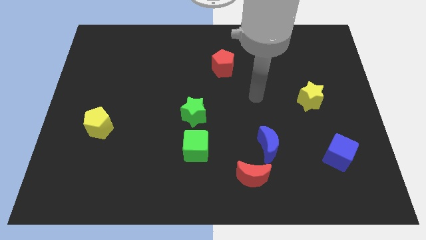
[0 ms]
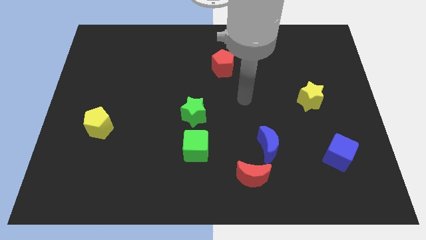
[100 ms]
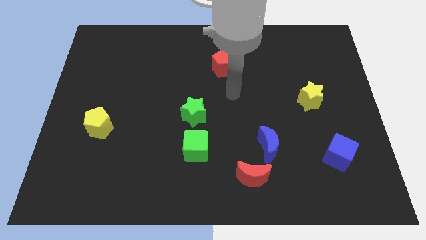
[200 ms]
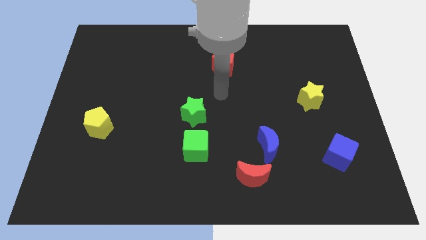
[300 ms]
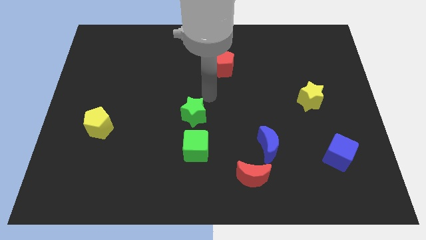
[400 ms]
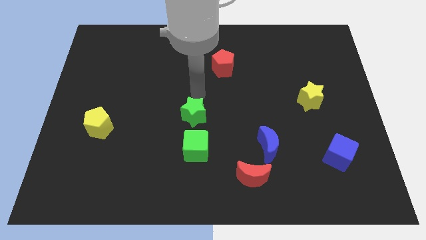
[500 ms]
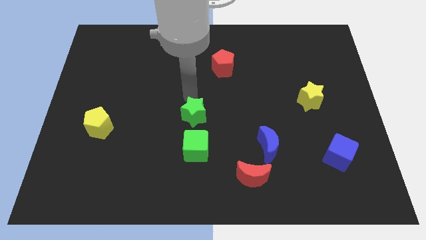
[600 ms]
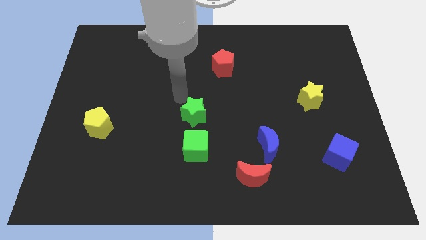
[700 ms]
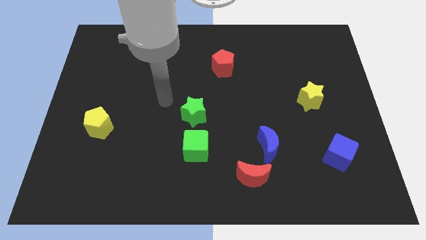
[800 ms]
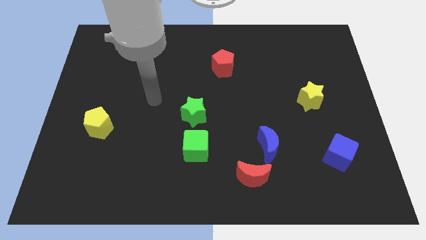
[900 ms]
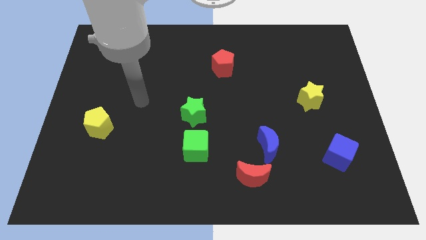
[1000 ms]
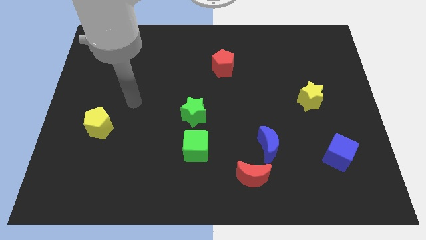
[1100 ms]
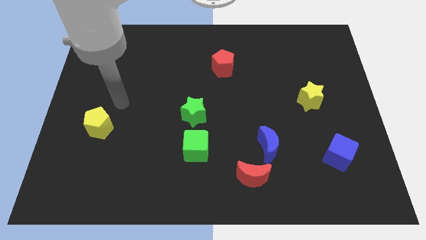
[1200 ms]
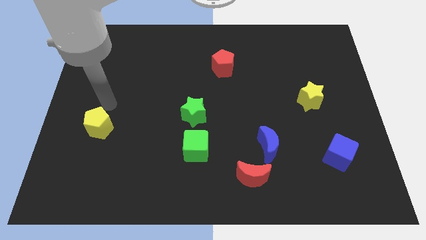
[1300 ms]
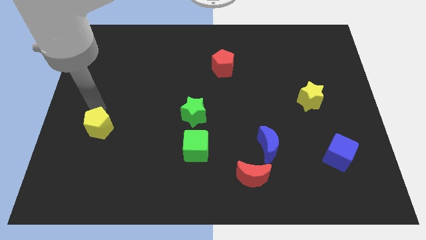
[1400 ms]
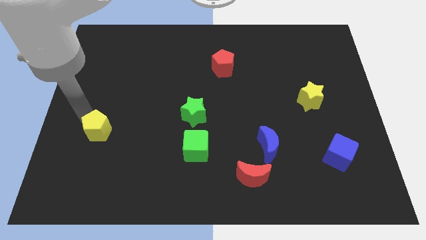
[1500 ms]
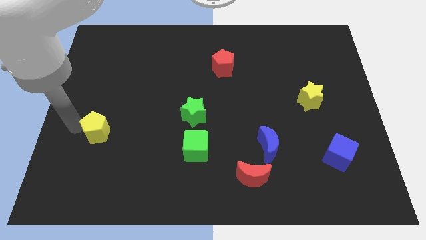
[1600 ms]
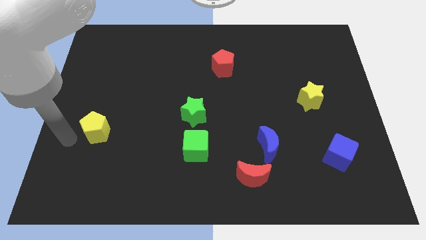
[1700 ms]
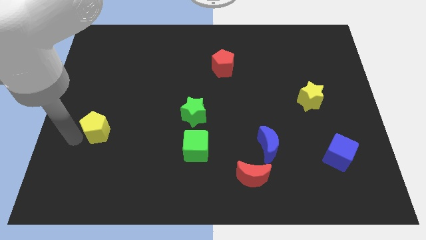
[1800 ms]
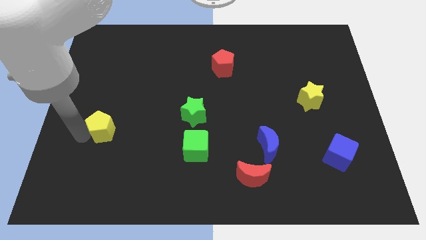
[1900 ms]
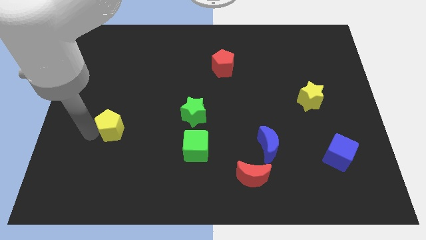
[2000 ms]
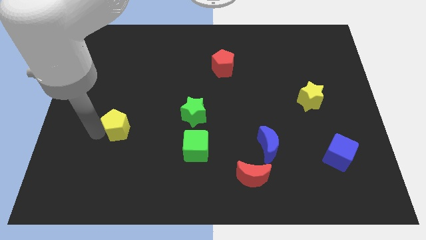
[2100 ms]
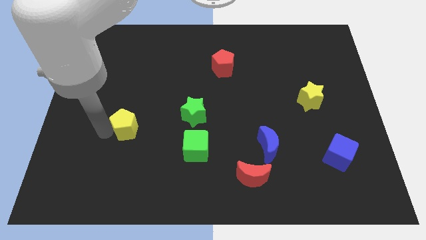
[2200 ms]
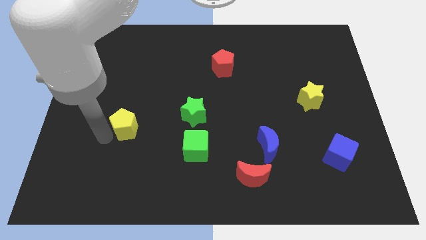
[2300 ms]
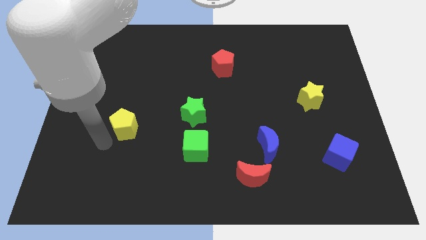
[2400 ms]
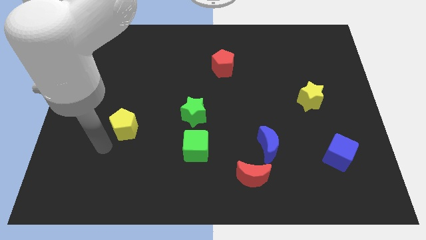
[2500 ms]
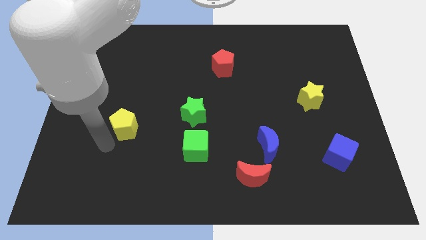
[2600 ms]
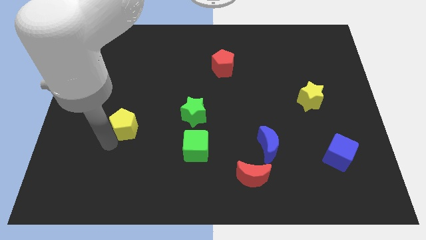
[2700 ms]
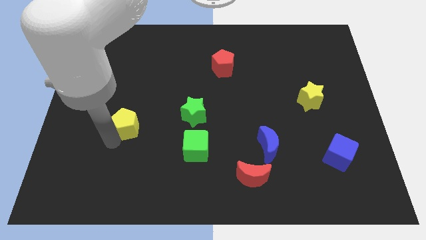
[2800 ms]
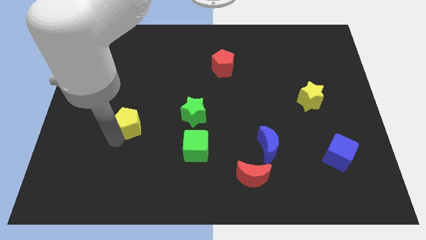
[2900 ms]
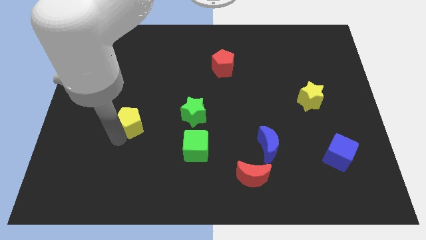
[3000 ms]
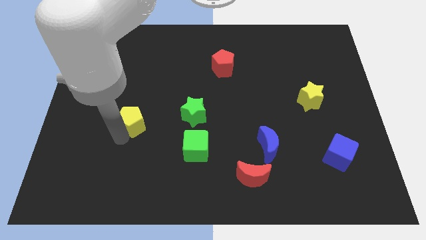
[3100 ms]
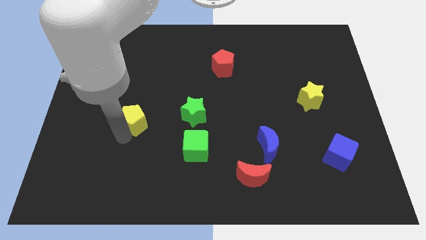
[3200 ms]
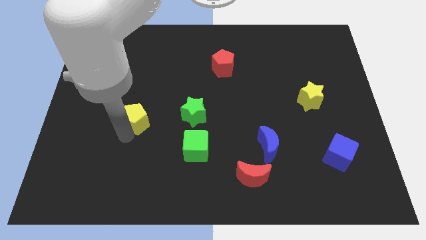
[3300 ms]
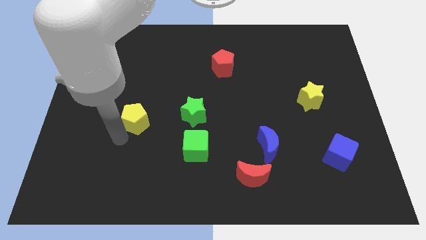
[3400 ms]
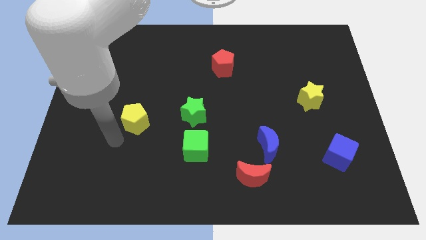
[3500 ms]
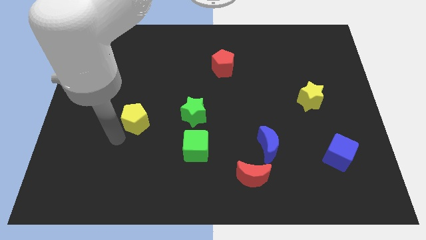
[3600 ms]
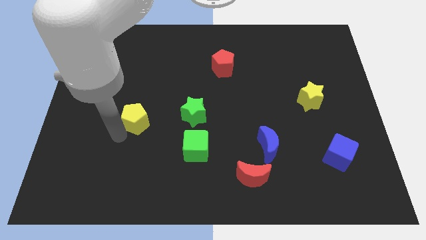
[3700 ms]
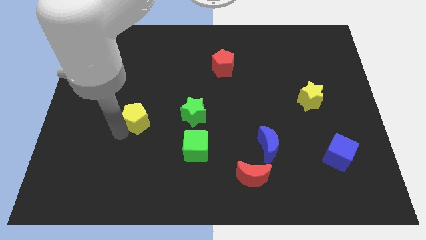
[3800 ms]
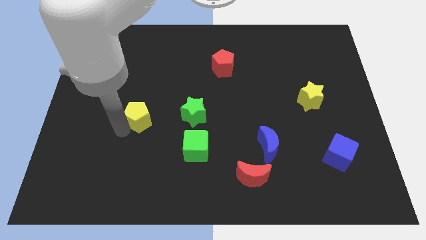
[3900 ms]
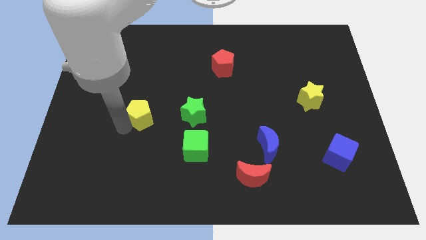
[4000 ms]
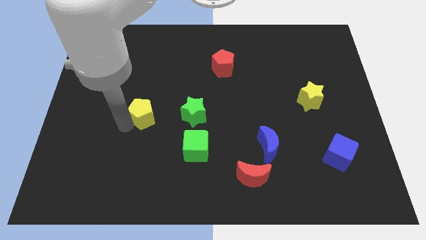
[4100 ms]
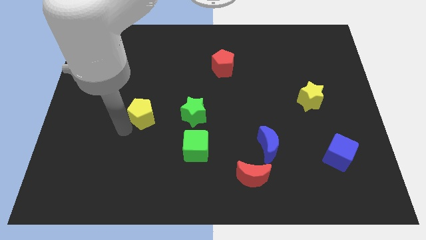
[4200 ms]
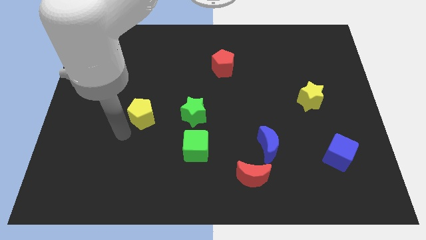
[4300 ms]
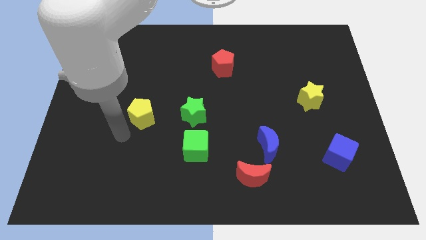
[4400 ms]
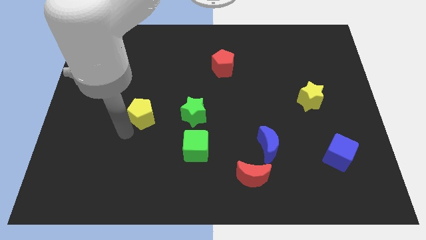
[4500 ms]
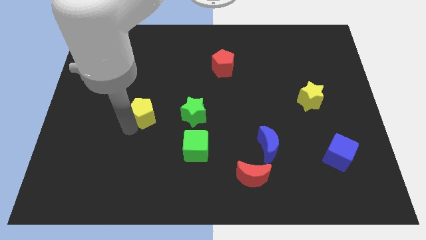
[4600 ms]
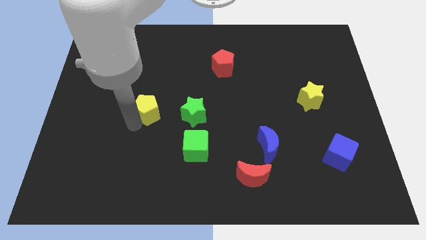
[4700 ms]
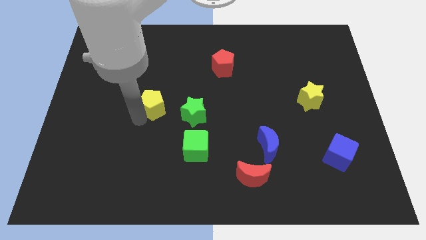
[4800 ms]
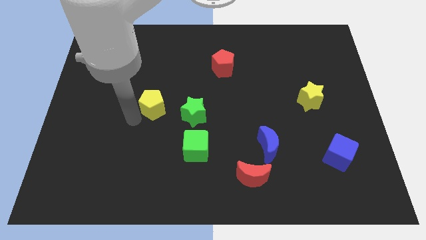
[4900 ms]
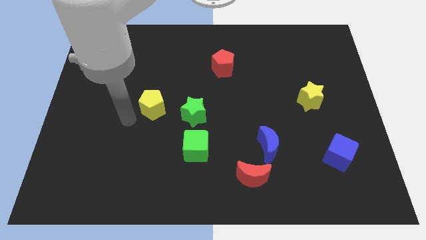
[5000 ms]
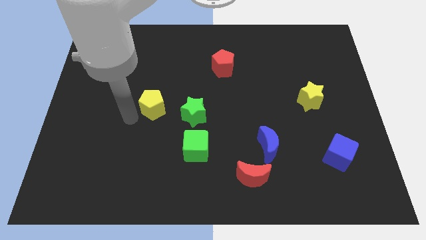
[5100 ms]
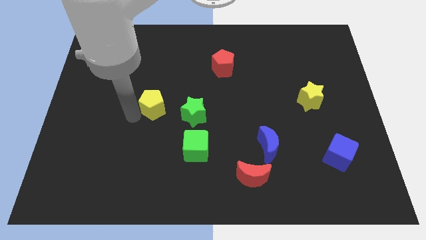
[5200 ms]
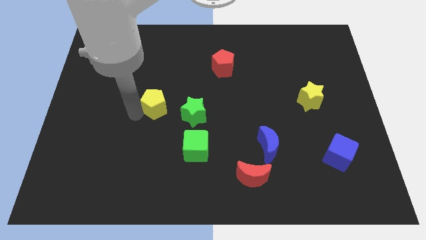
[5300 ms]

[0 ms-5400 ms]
slide the yellow pentagon to the top left side of the green star

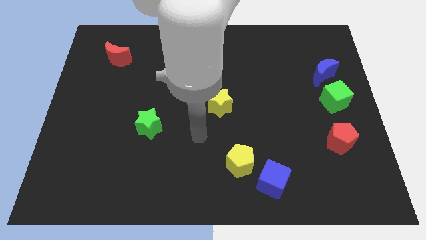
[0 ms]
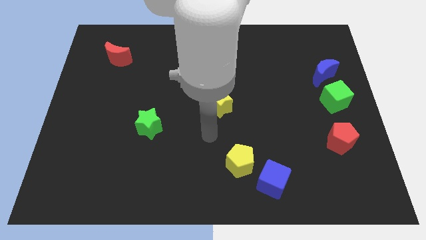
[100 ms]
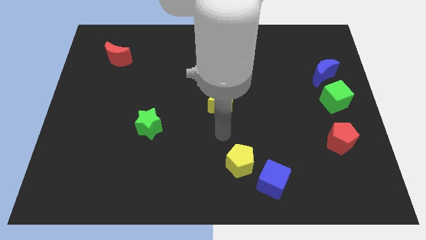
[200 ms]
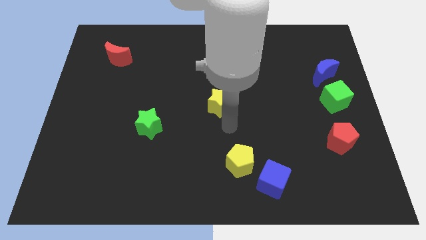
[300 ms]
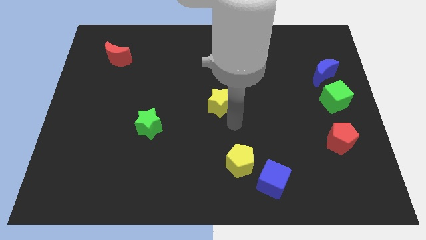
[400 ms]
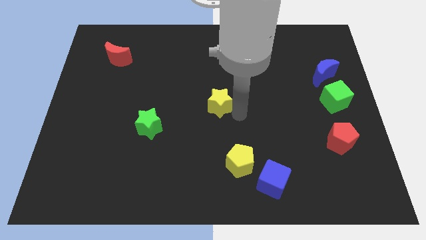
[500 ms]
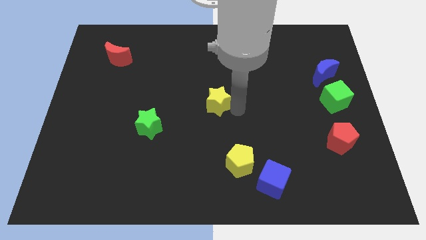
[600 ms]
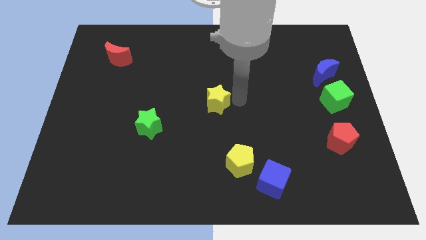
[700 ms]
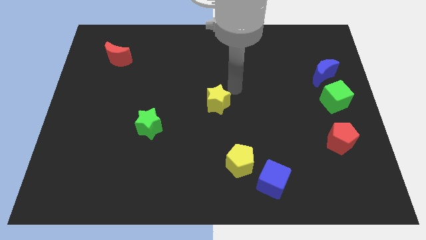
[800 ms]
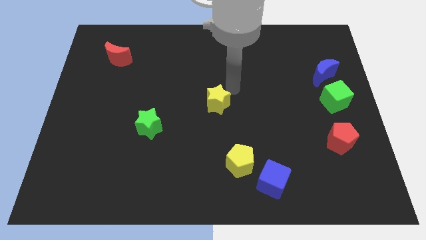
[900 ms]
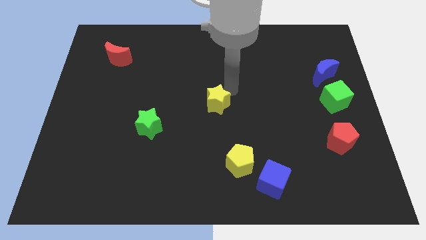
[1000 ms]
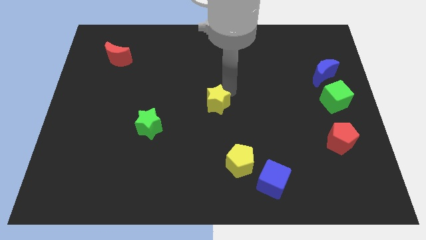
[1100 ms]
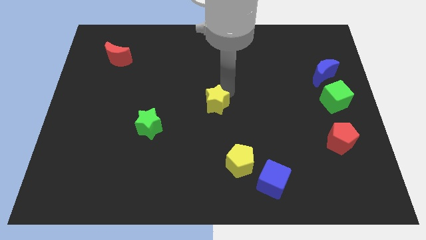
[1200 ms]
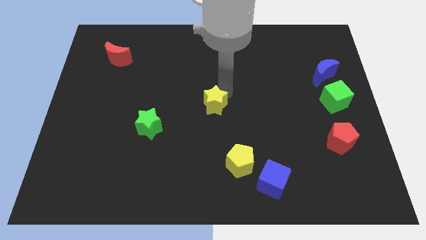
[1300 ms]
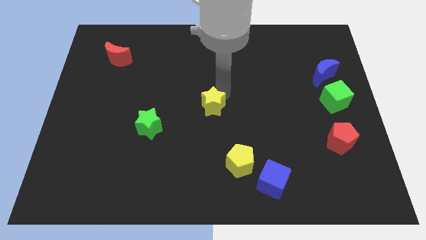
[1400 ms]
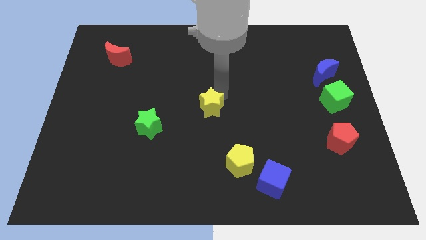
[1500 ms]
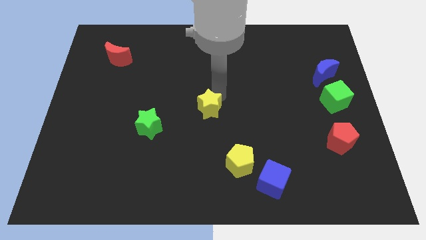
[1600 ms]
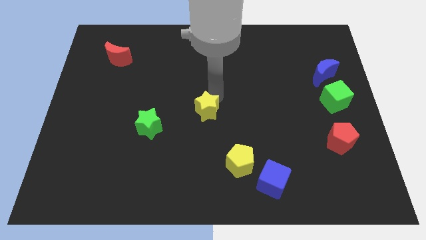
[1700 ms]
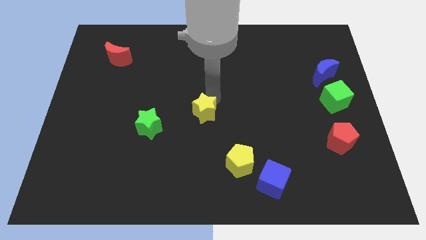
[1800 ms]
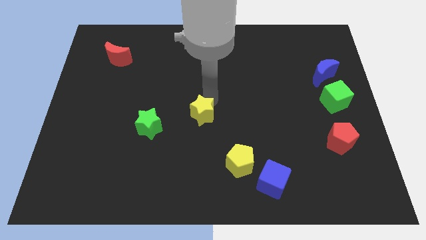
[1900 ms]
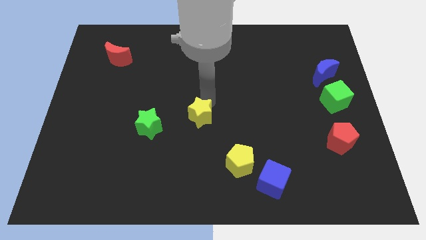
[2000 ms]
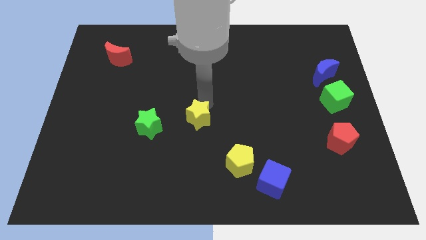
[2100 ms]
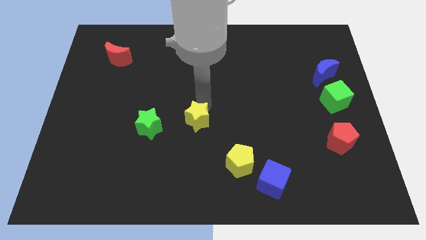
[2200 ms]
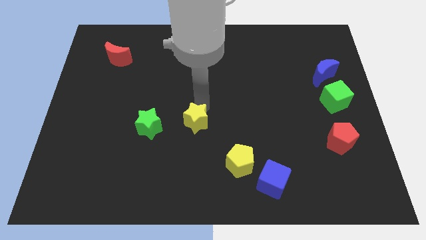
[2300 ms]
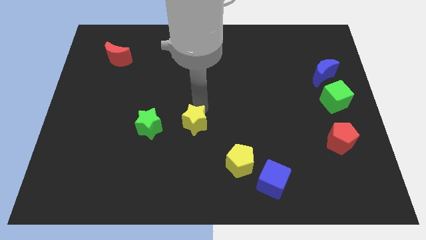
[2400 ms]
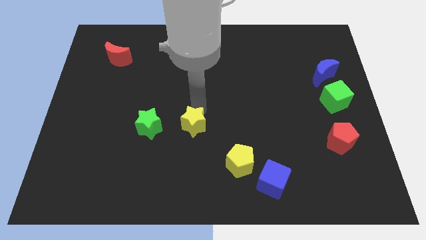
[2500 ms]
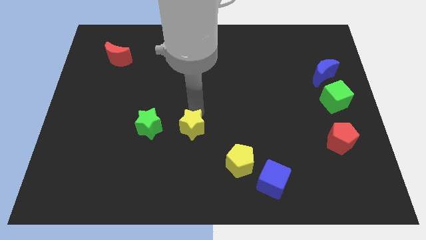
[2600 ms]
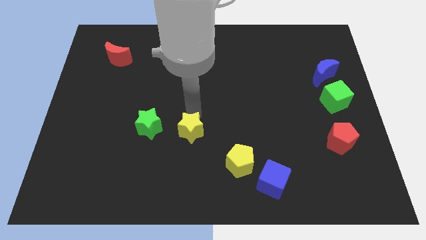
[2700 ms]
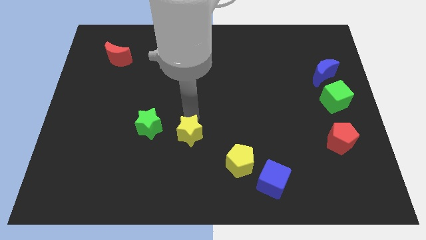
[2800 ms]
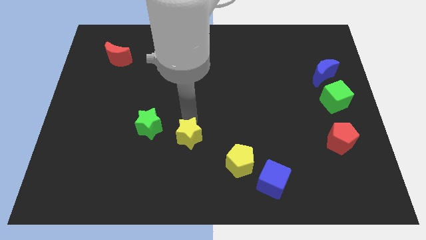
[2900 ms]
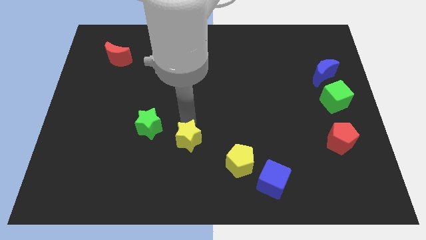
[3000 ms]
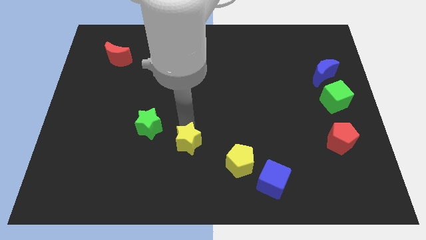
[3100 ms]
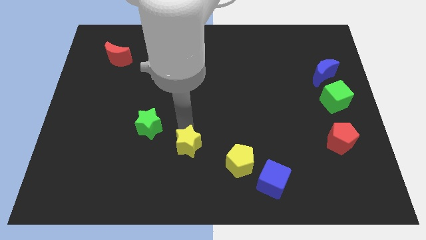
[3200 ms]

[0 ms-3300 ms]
put the yellow star to the left of the yellow pentagon

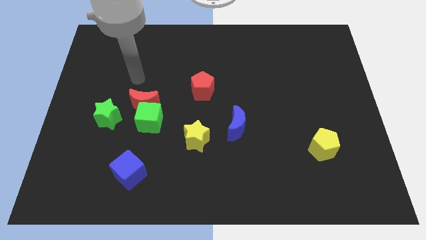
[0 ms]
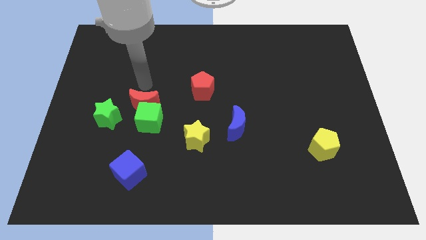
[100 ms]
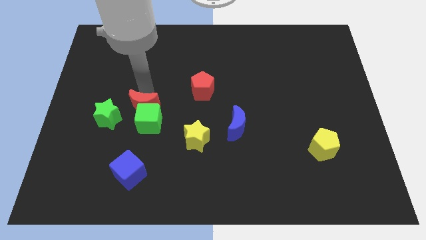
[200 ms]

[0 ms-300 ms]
slide the green cube to the left side of the yellow star
